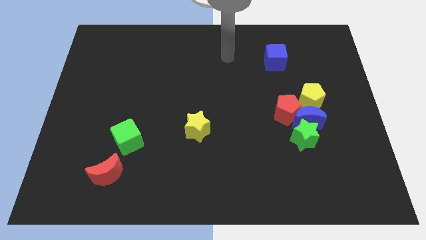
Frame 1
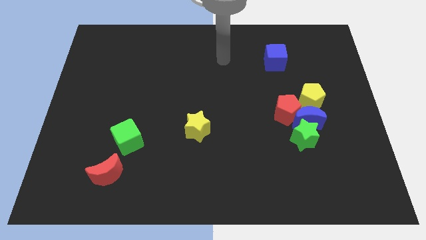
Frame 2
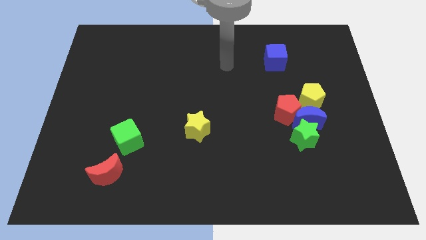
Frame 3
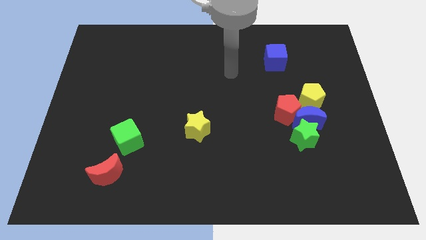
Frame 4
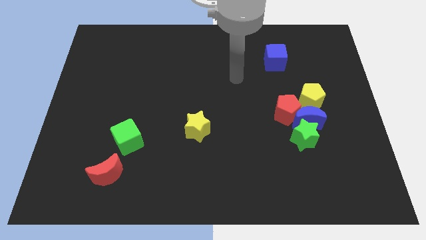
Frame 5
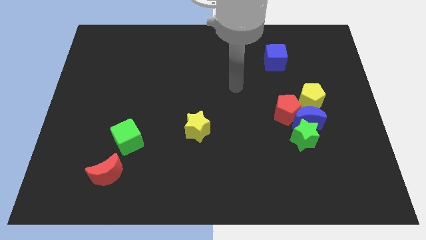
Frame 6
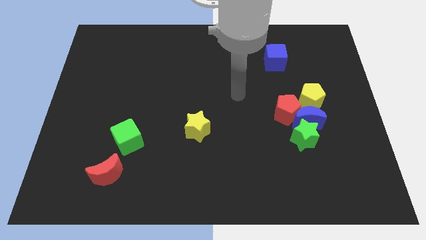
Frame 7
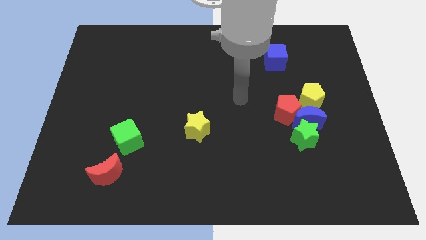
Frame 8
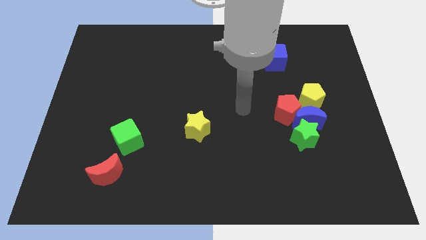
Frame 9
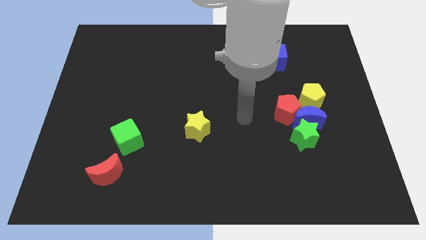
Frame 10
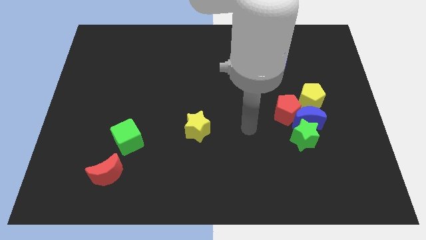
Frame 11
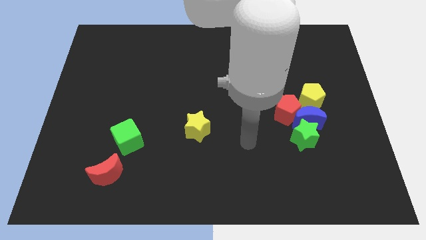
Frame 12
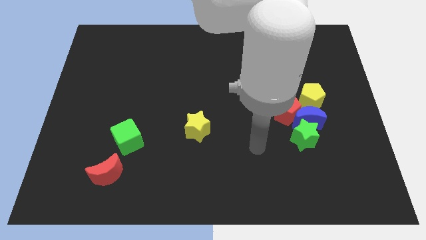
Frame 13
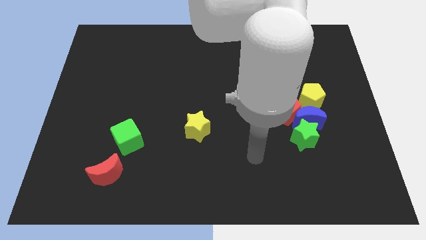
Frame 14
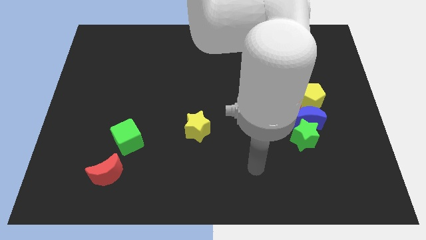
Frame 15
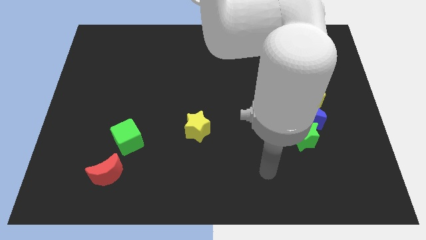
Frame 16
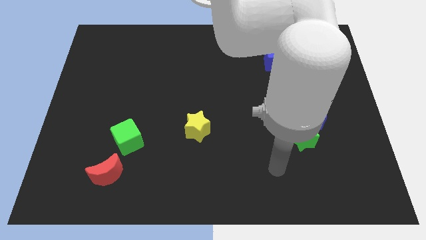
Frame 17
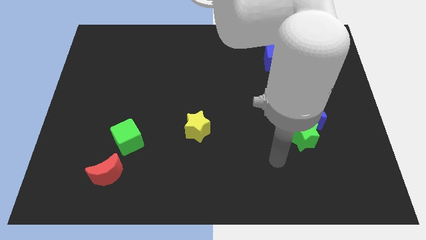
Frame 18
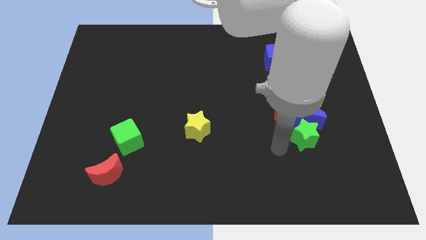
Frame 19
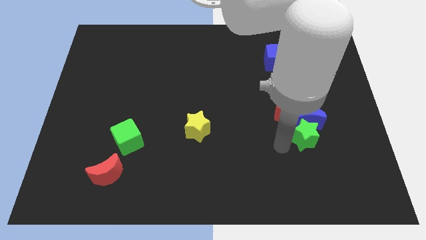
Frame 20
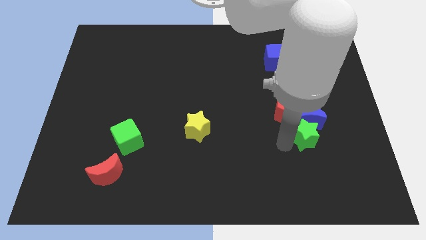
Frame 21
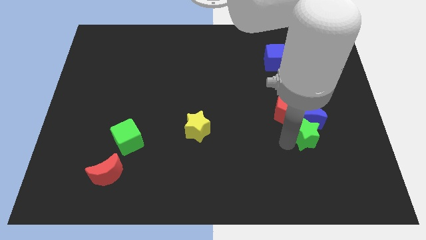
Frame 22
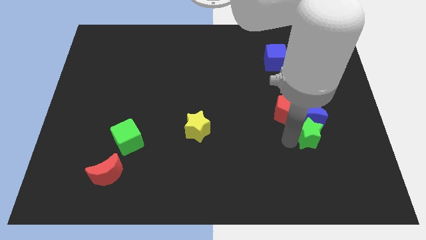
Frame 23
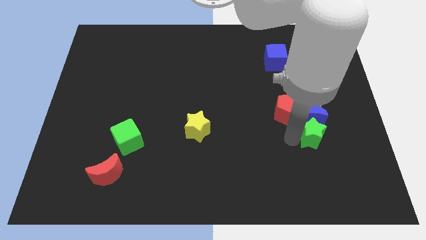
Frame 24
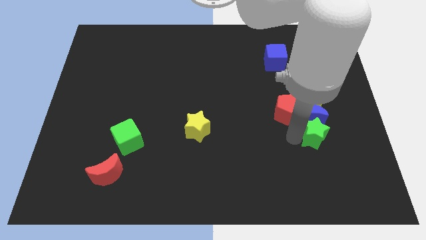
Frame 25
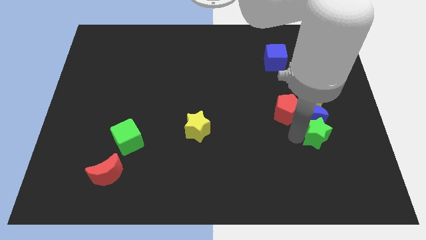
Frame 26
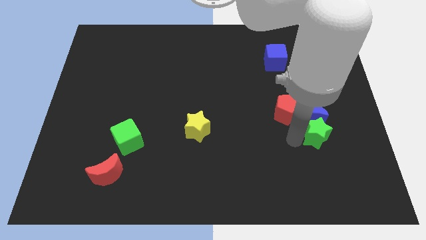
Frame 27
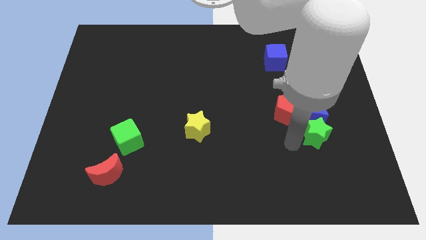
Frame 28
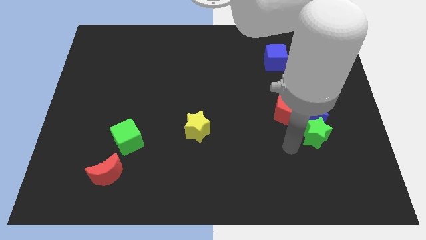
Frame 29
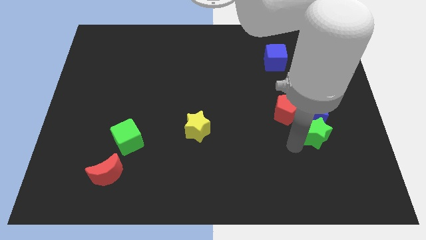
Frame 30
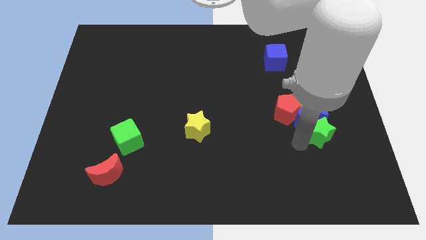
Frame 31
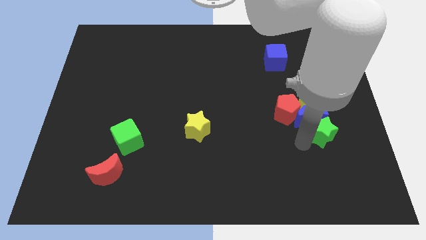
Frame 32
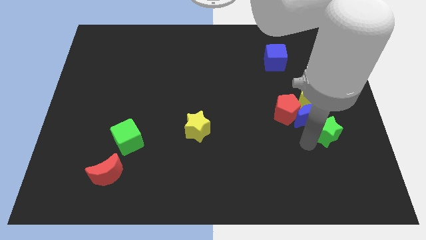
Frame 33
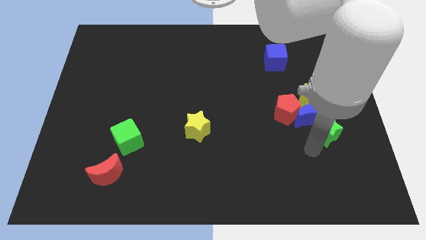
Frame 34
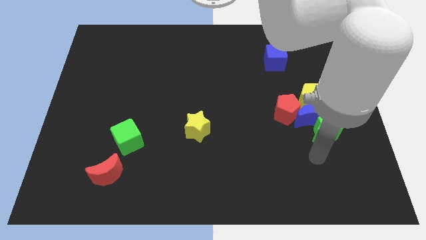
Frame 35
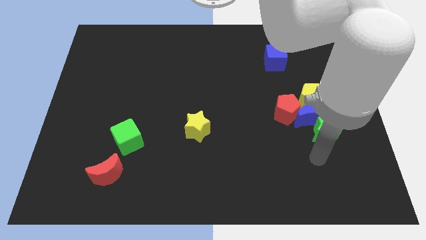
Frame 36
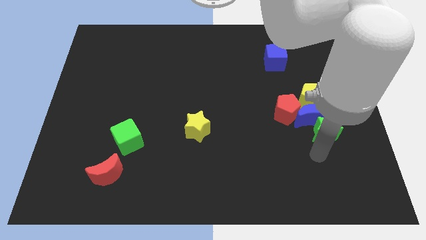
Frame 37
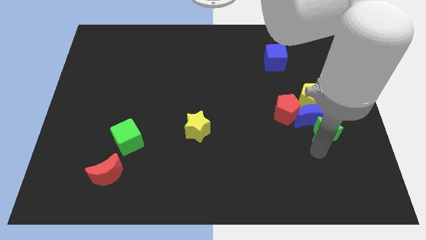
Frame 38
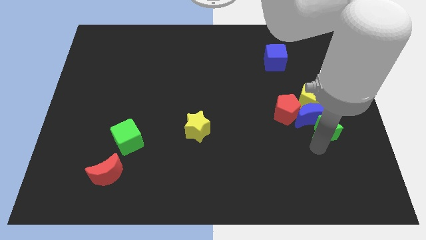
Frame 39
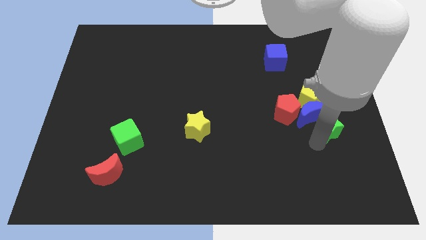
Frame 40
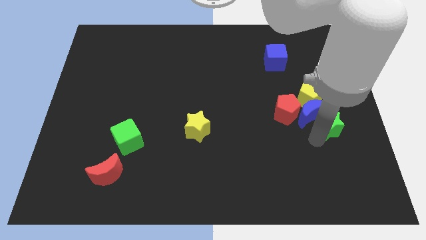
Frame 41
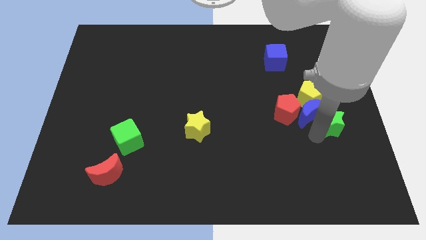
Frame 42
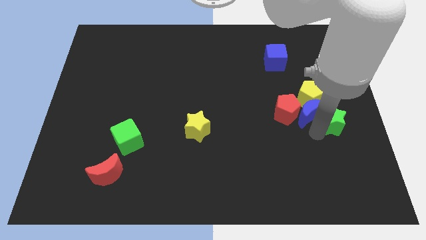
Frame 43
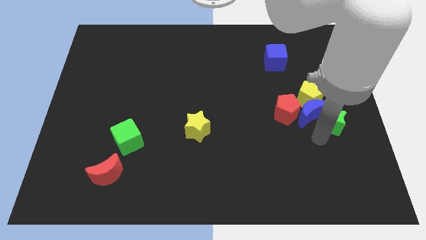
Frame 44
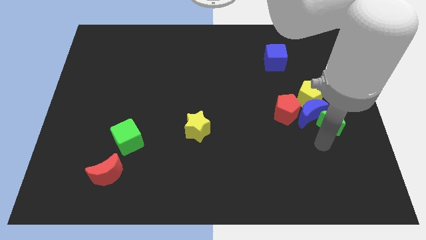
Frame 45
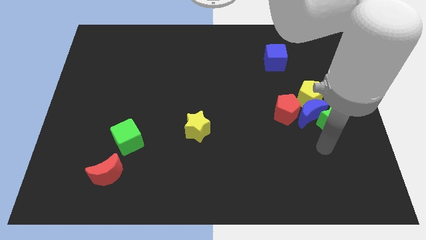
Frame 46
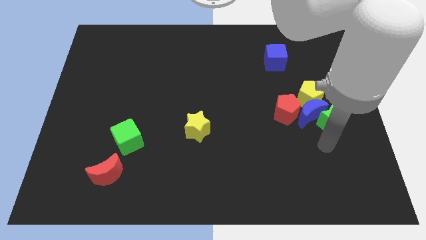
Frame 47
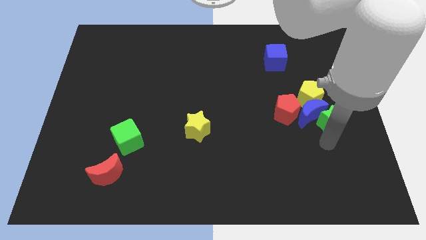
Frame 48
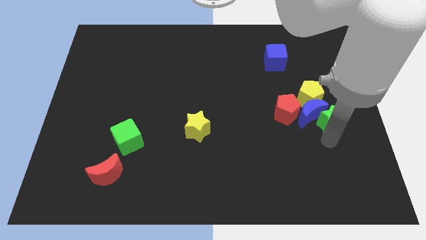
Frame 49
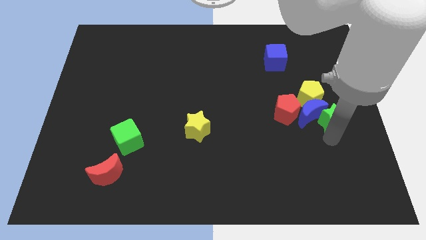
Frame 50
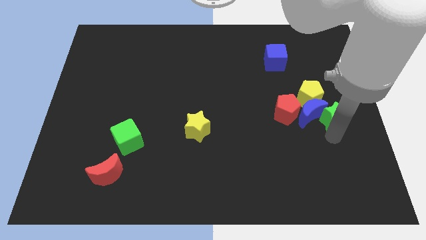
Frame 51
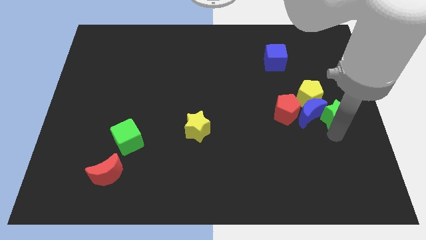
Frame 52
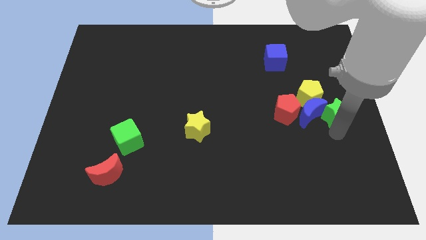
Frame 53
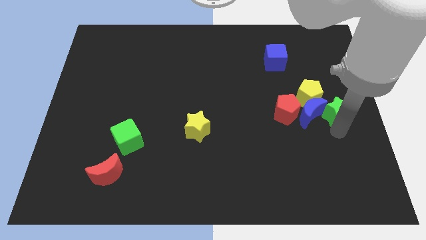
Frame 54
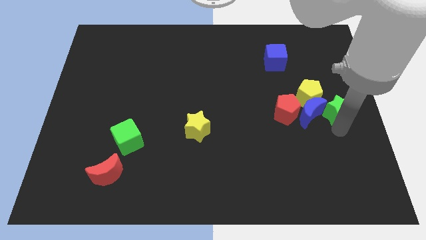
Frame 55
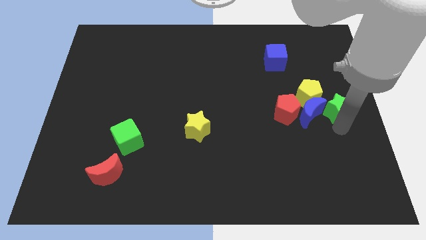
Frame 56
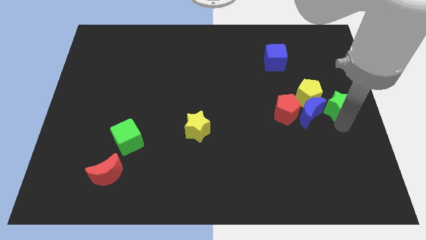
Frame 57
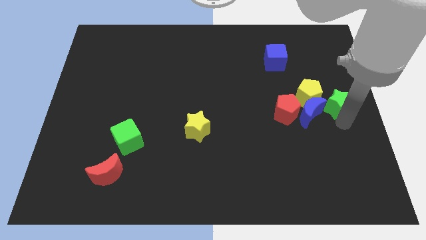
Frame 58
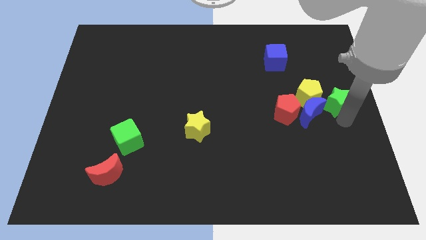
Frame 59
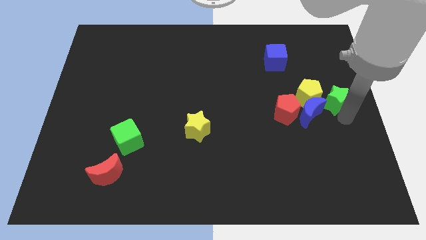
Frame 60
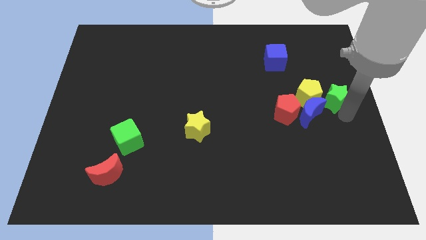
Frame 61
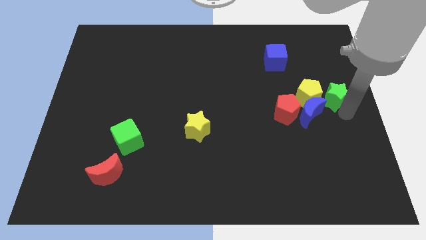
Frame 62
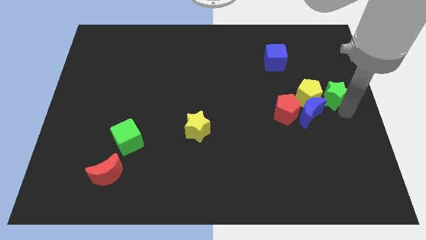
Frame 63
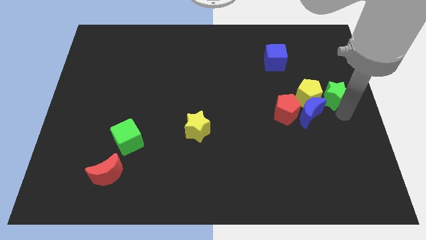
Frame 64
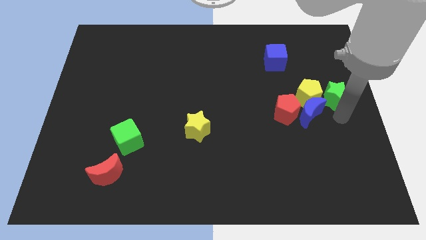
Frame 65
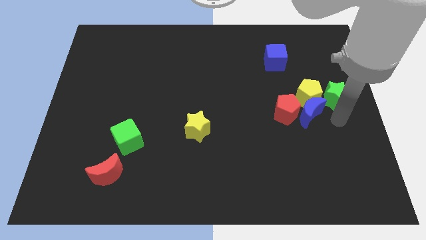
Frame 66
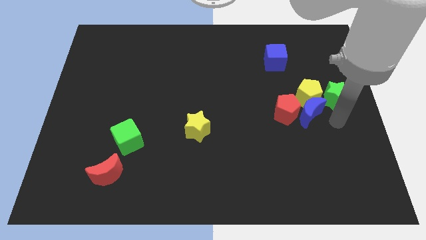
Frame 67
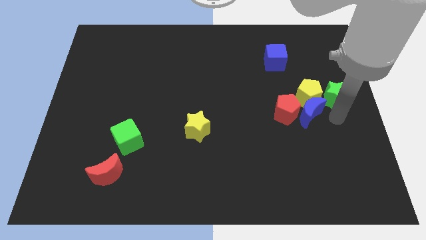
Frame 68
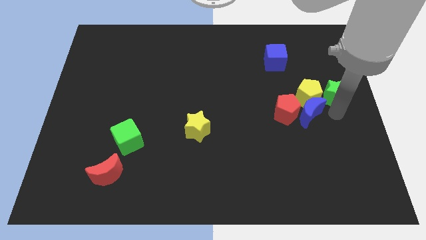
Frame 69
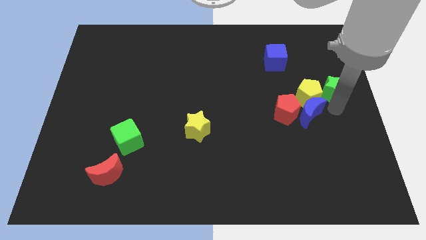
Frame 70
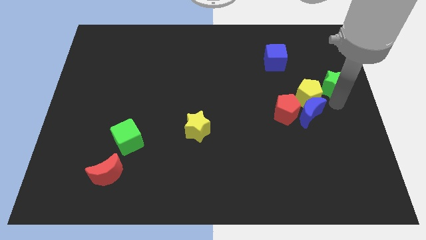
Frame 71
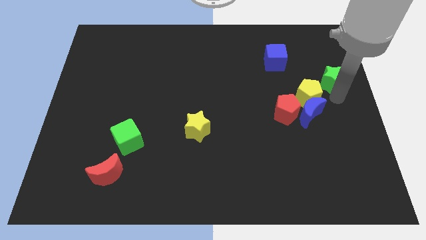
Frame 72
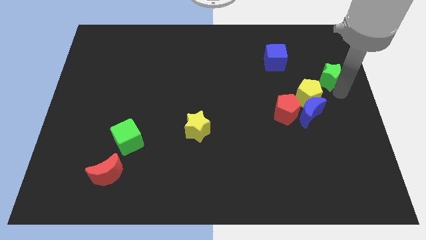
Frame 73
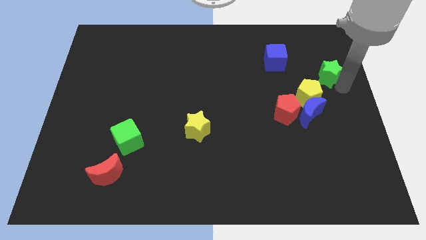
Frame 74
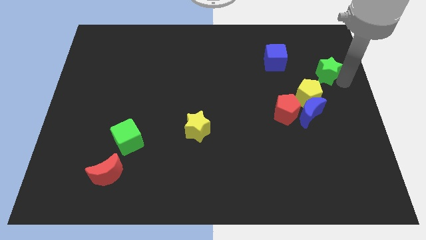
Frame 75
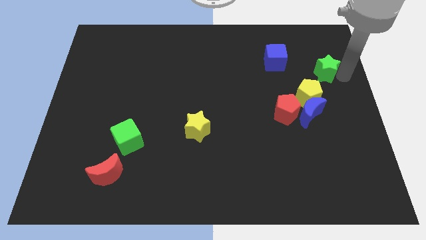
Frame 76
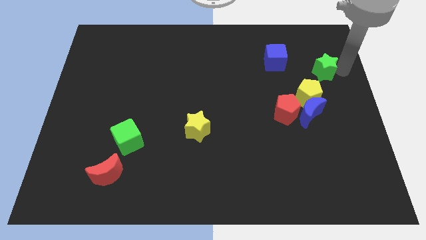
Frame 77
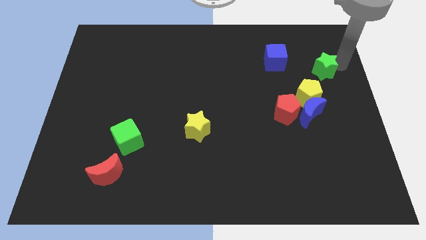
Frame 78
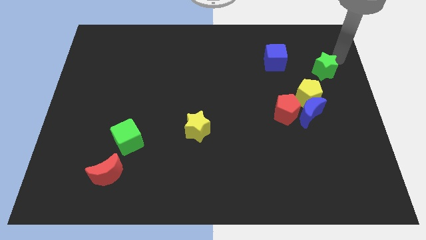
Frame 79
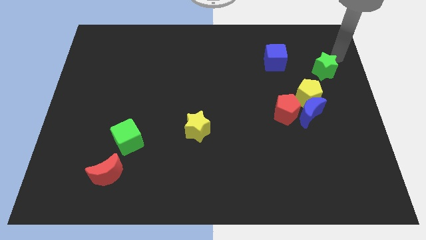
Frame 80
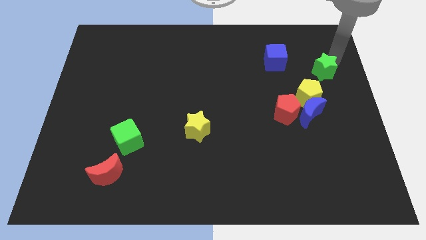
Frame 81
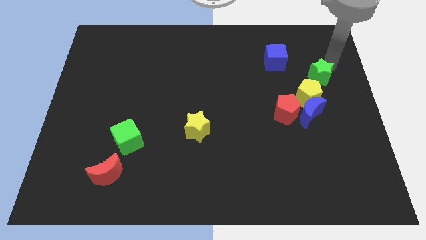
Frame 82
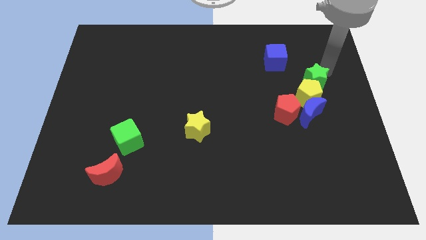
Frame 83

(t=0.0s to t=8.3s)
move the green star to the top right side of the red pentagon
